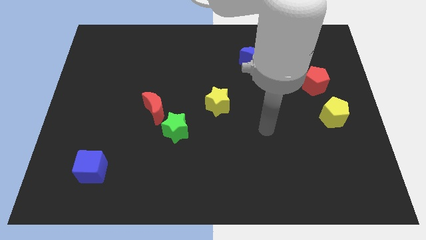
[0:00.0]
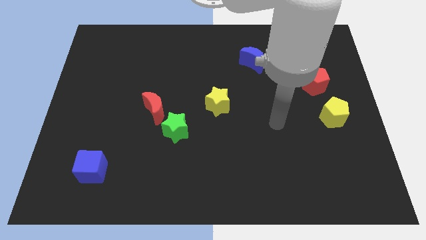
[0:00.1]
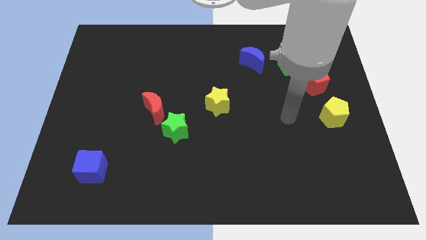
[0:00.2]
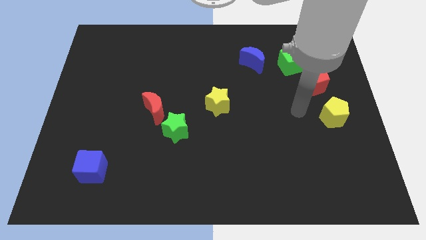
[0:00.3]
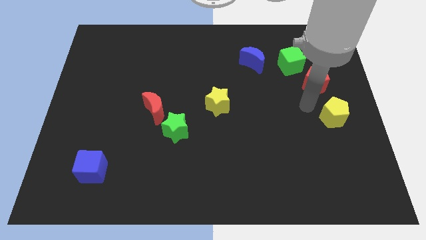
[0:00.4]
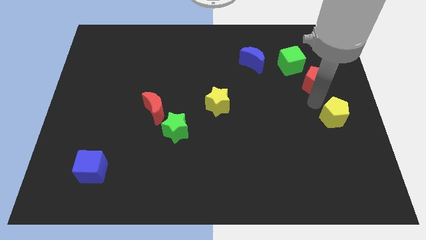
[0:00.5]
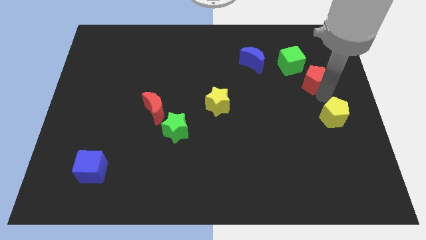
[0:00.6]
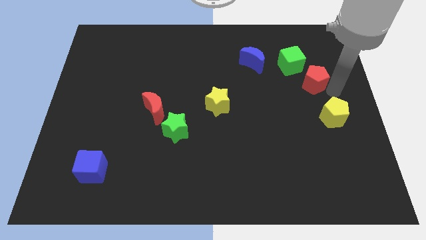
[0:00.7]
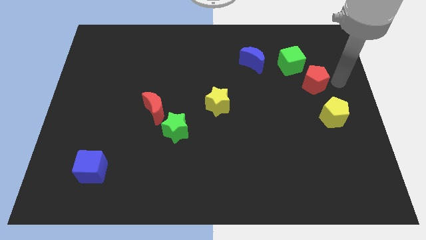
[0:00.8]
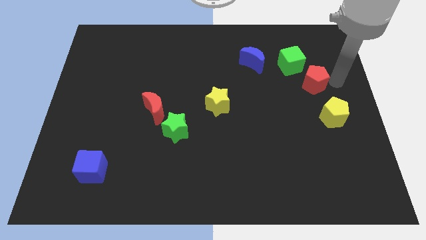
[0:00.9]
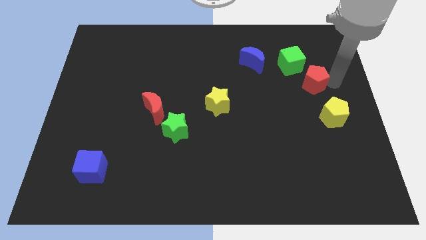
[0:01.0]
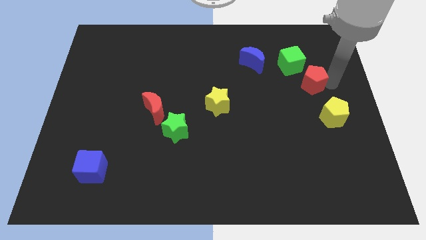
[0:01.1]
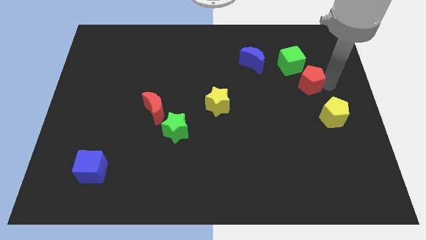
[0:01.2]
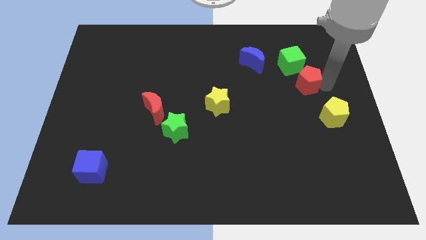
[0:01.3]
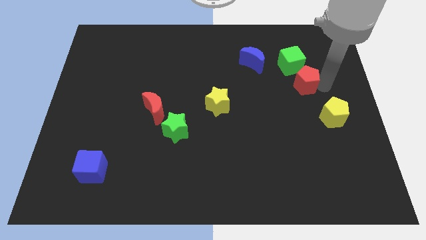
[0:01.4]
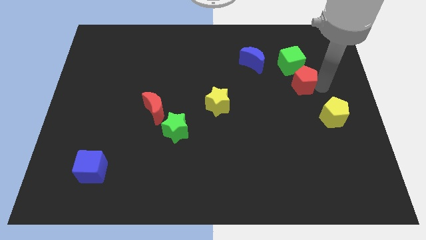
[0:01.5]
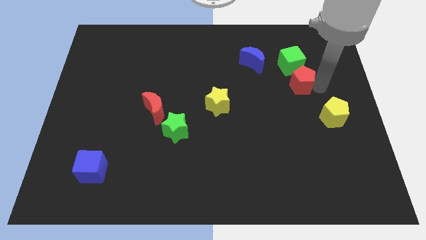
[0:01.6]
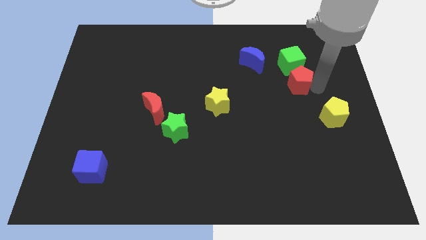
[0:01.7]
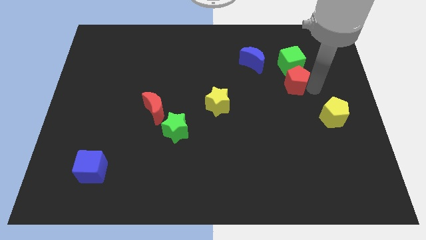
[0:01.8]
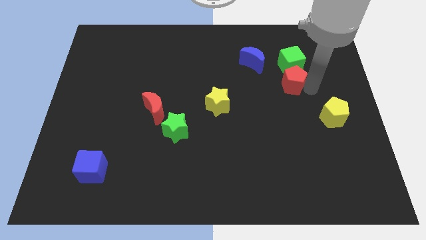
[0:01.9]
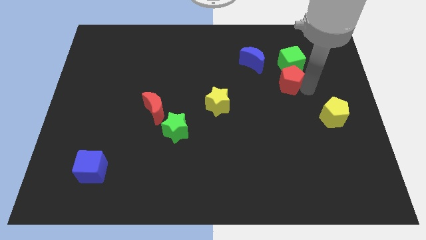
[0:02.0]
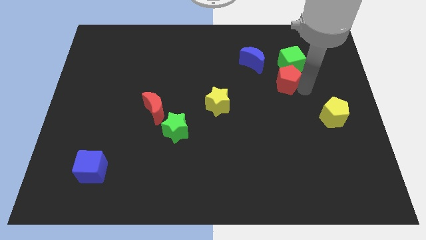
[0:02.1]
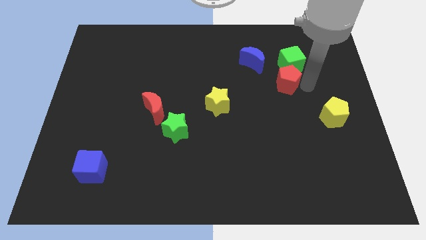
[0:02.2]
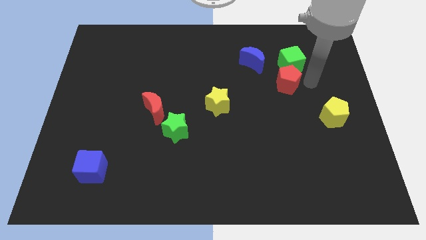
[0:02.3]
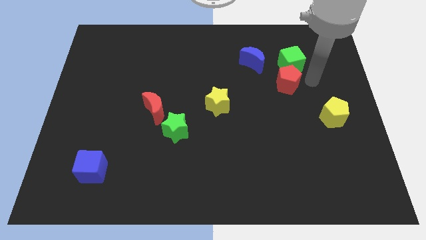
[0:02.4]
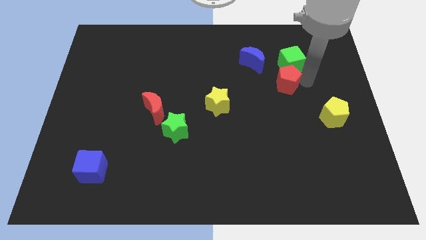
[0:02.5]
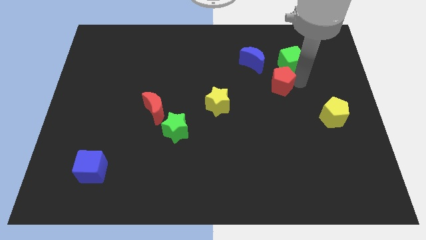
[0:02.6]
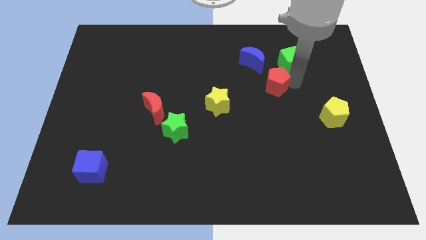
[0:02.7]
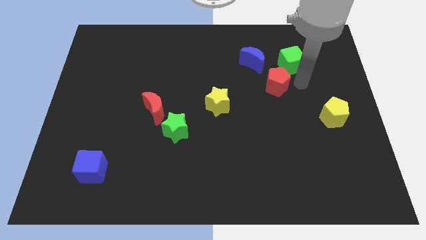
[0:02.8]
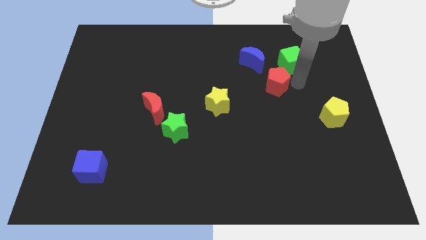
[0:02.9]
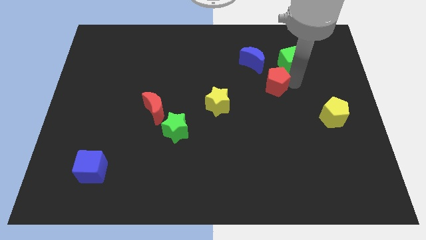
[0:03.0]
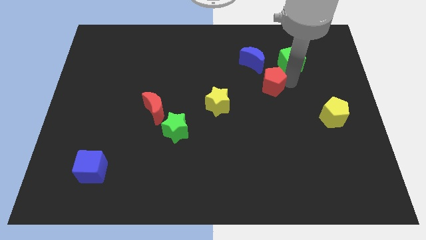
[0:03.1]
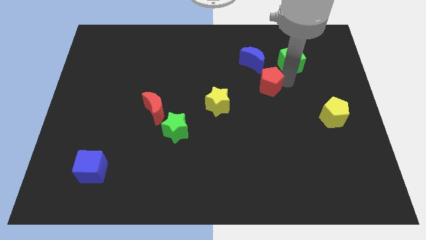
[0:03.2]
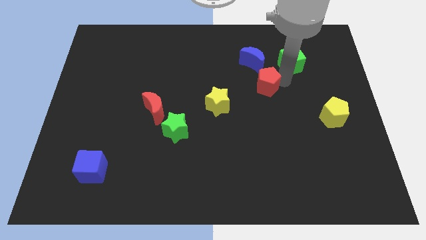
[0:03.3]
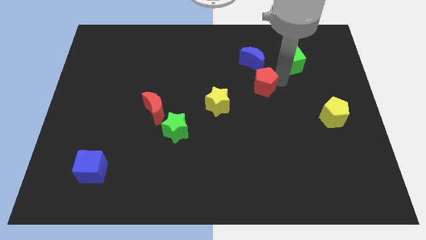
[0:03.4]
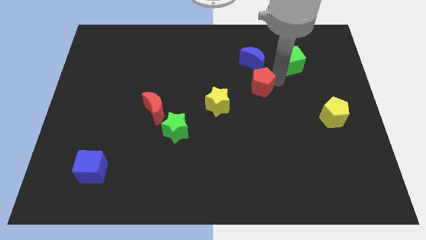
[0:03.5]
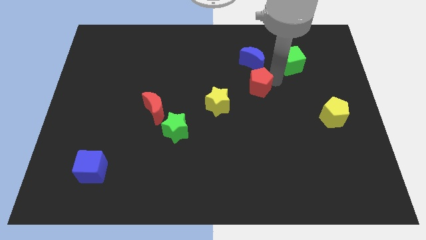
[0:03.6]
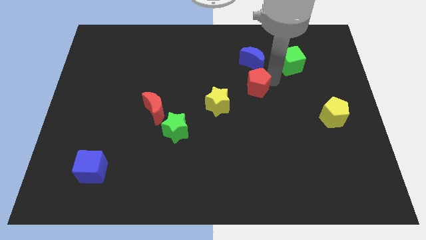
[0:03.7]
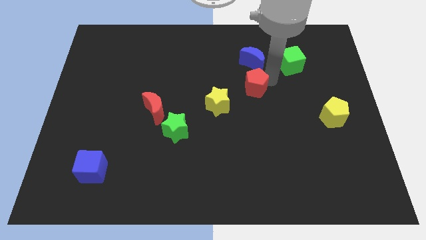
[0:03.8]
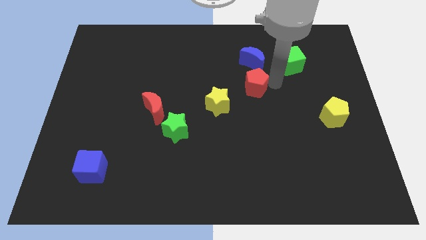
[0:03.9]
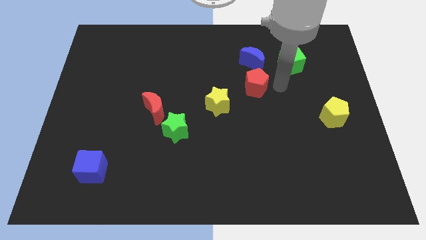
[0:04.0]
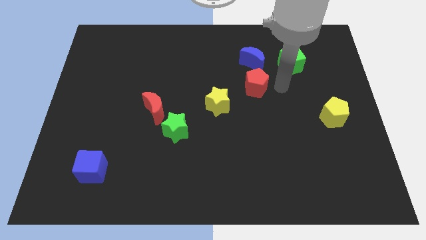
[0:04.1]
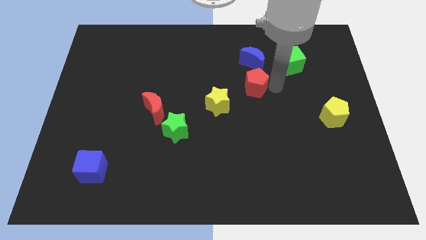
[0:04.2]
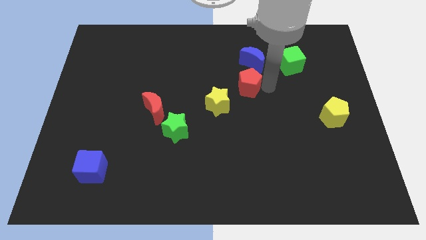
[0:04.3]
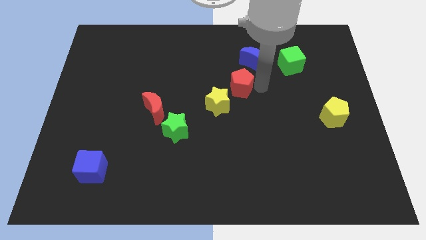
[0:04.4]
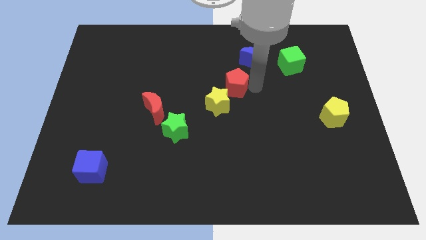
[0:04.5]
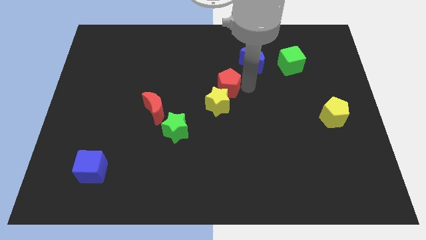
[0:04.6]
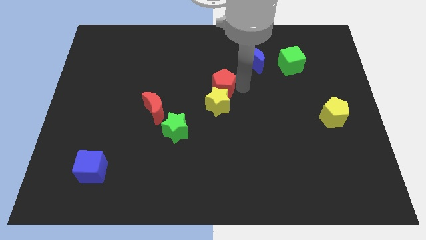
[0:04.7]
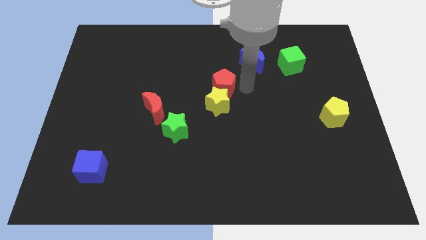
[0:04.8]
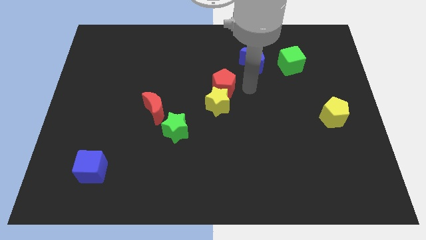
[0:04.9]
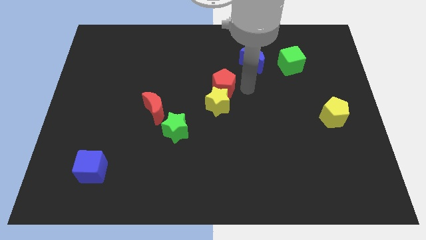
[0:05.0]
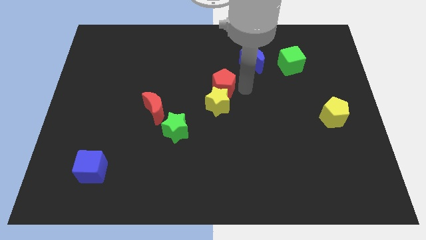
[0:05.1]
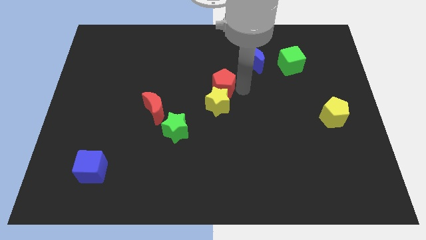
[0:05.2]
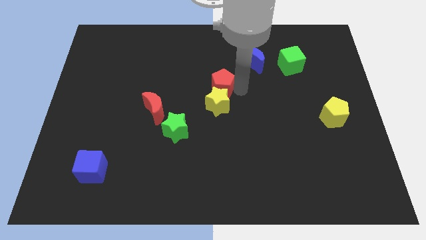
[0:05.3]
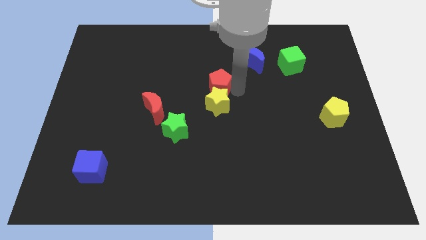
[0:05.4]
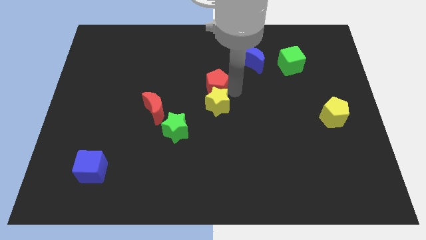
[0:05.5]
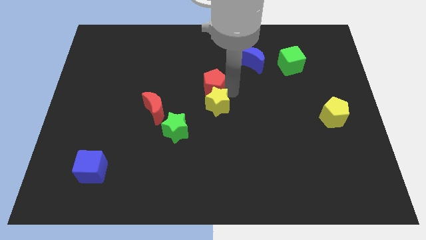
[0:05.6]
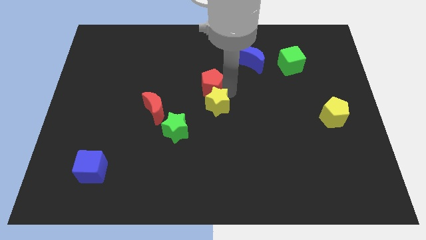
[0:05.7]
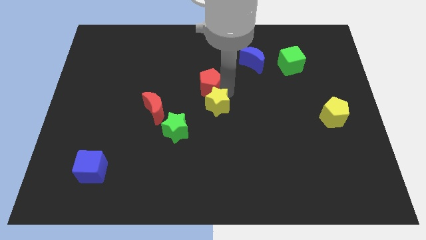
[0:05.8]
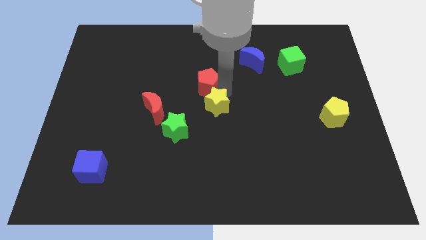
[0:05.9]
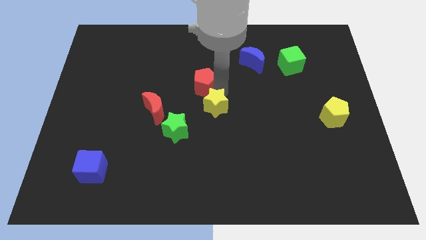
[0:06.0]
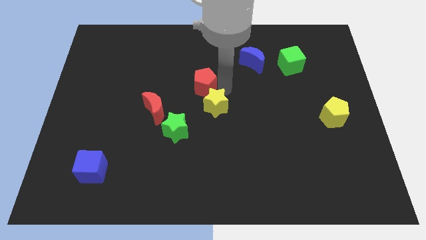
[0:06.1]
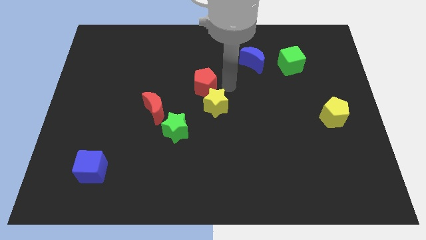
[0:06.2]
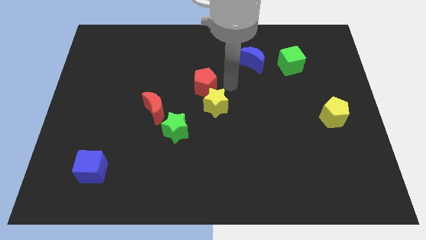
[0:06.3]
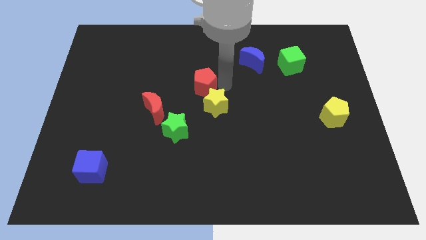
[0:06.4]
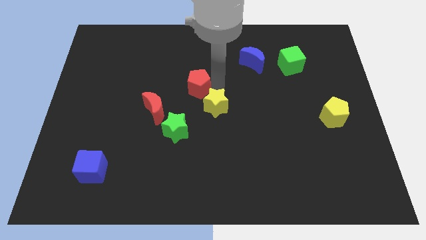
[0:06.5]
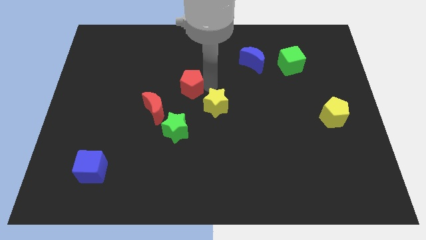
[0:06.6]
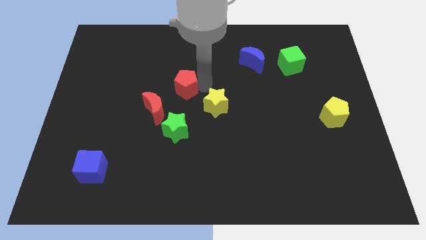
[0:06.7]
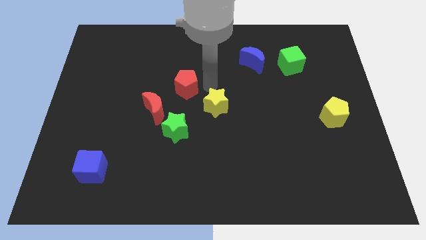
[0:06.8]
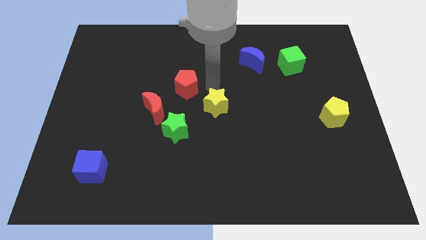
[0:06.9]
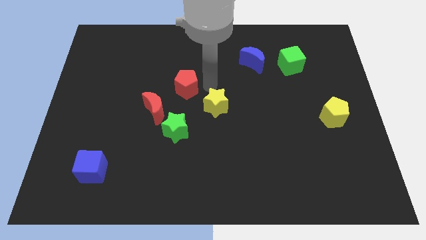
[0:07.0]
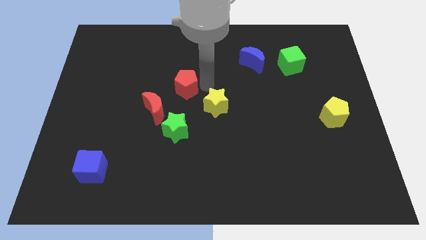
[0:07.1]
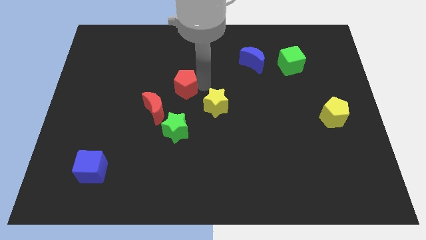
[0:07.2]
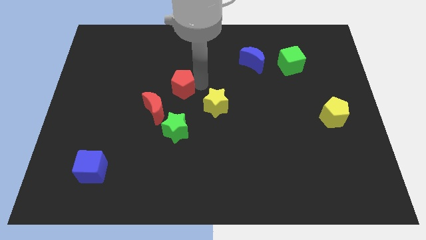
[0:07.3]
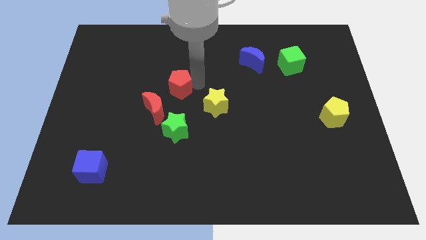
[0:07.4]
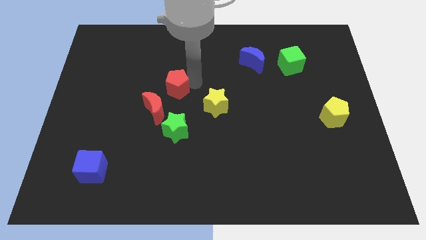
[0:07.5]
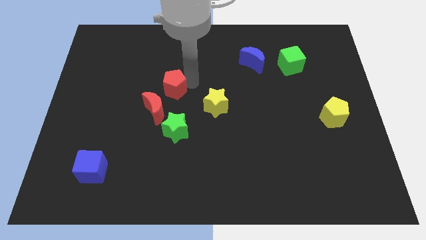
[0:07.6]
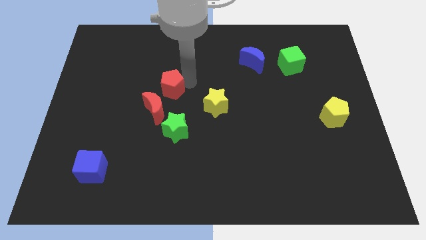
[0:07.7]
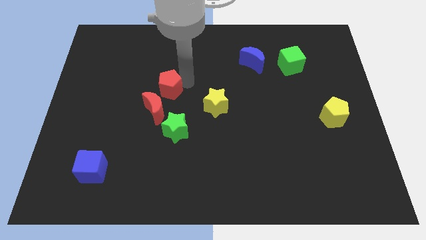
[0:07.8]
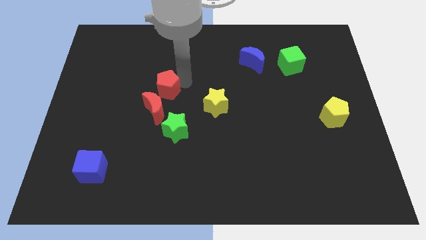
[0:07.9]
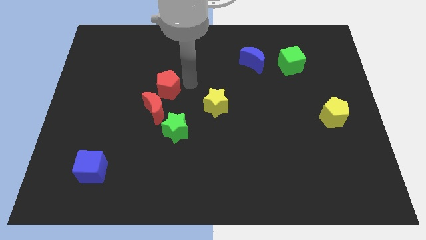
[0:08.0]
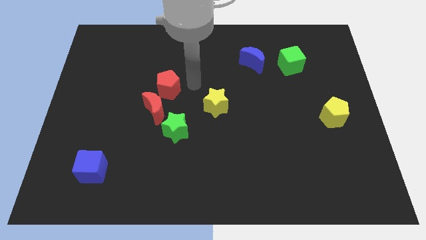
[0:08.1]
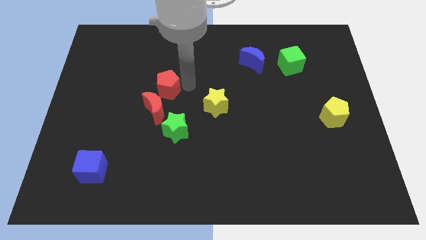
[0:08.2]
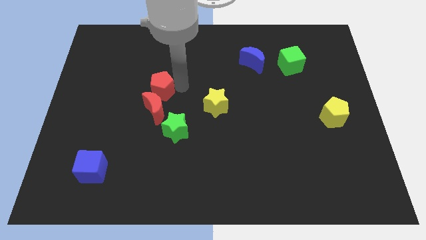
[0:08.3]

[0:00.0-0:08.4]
push the red pentagon to the top left of the red moon
